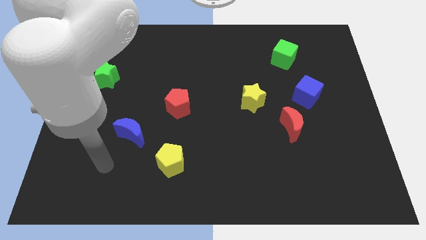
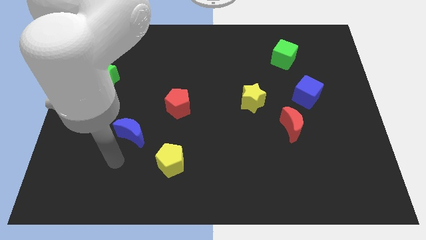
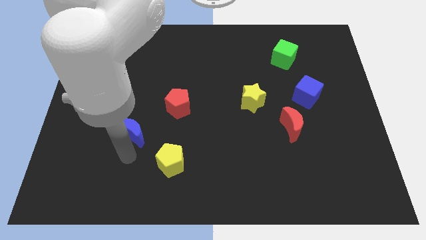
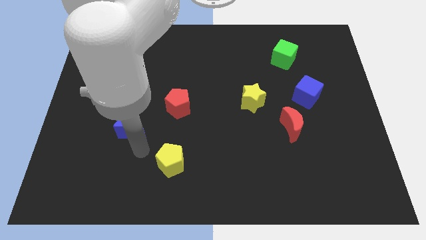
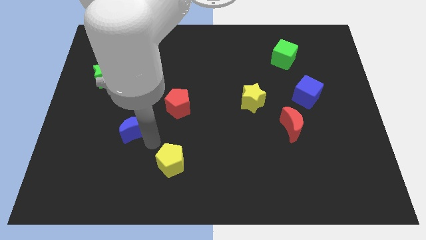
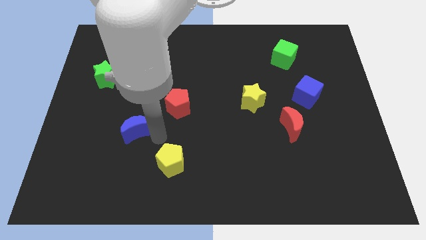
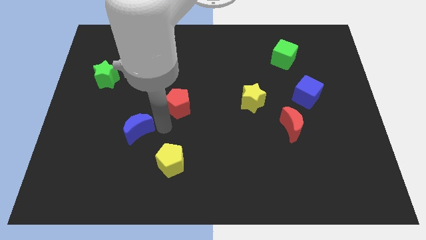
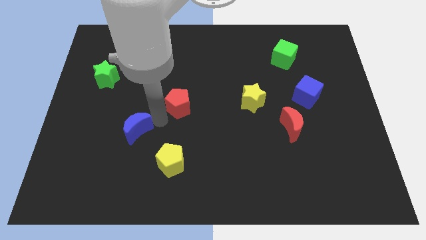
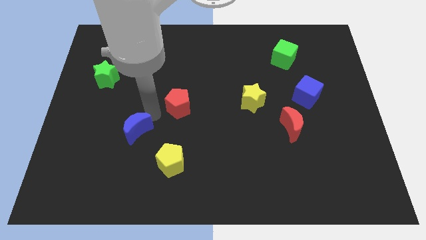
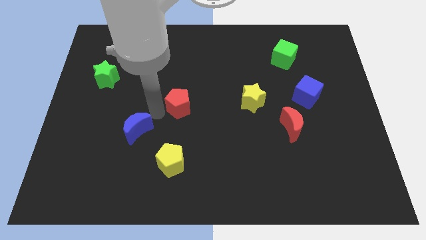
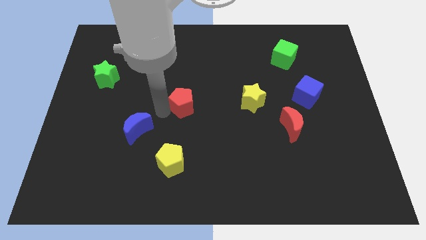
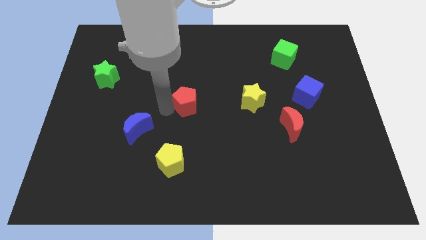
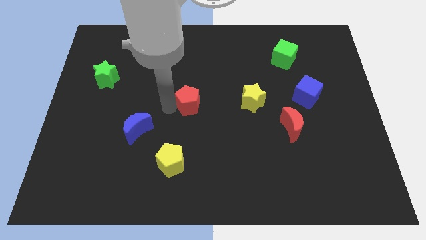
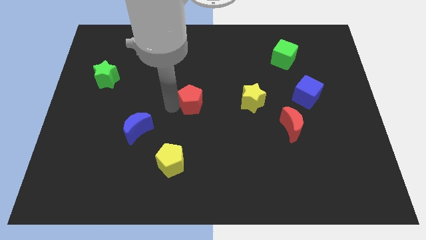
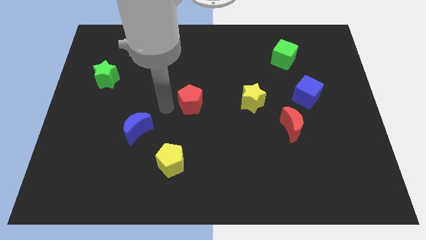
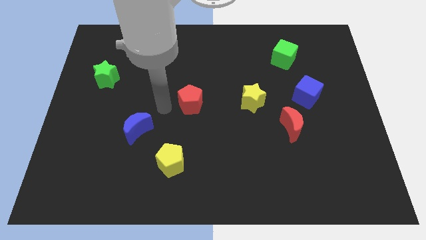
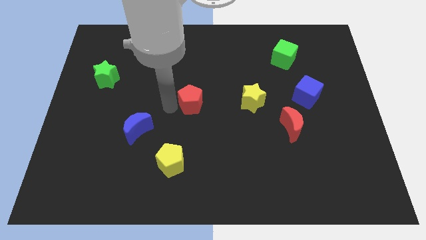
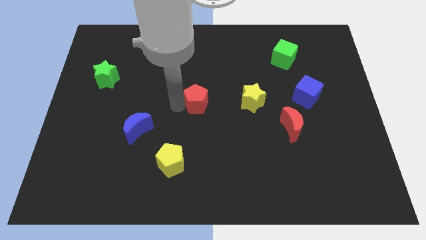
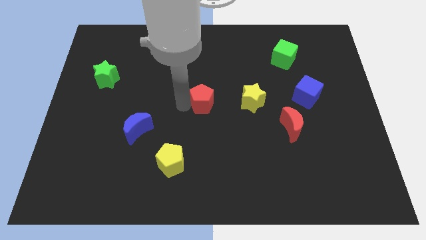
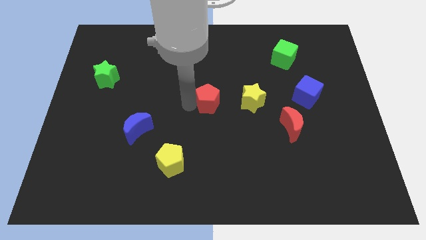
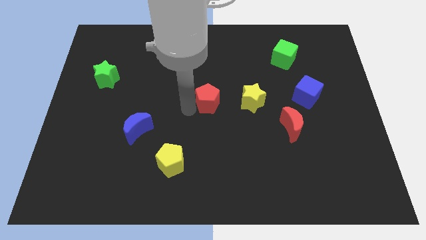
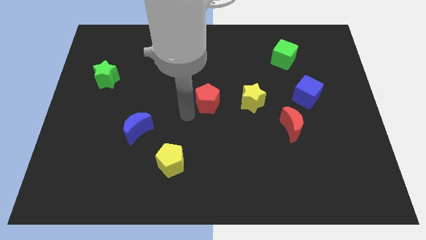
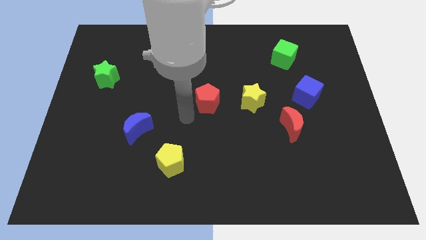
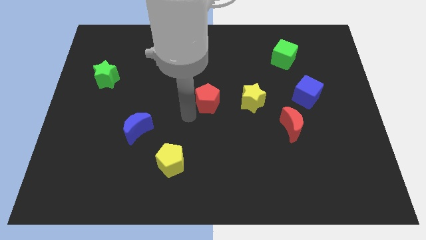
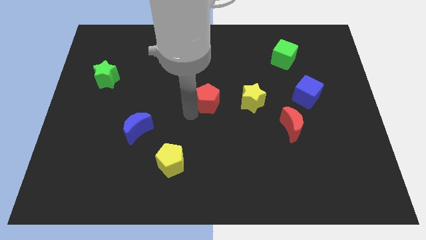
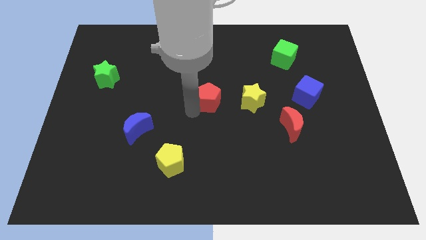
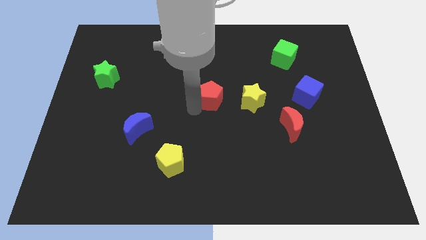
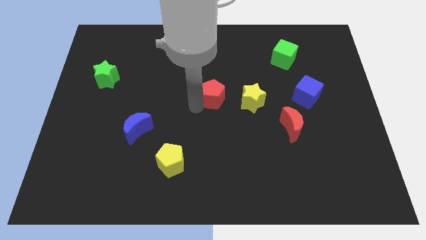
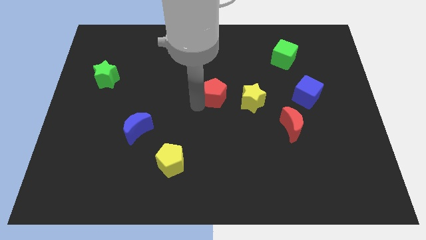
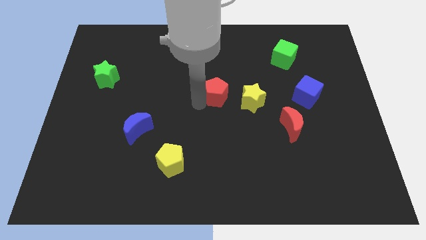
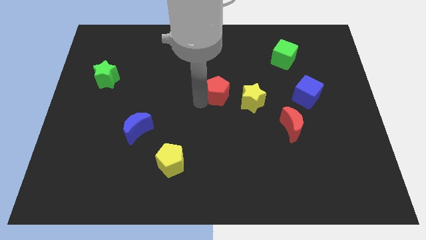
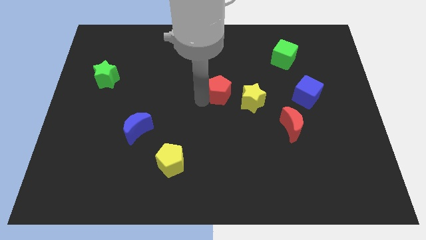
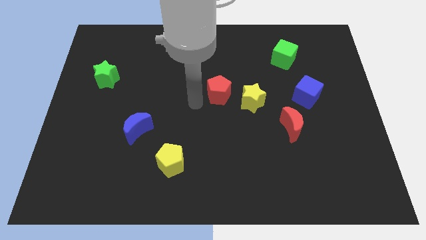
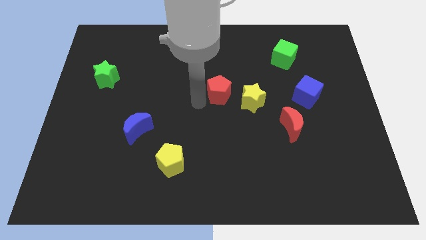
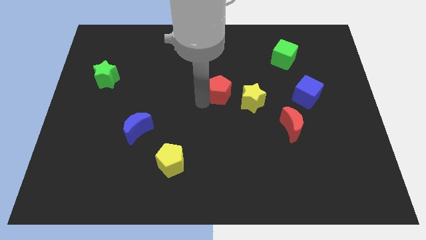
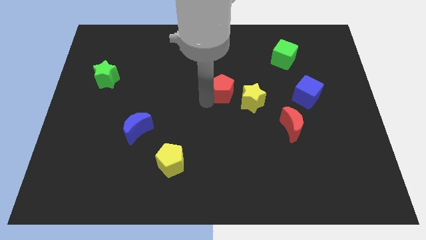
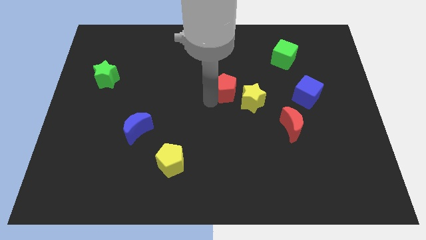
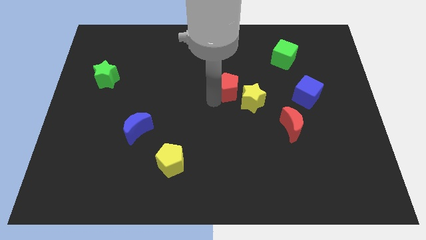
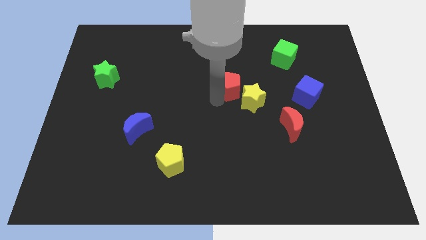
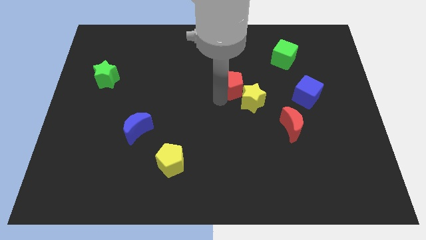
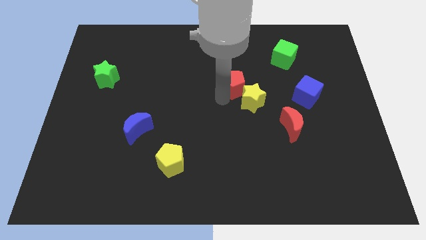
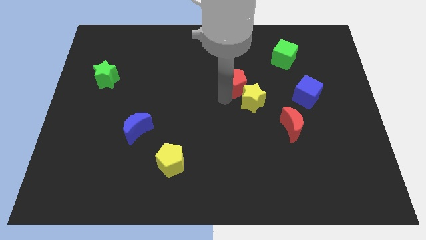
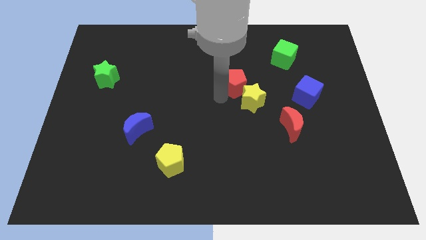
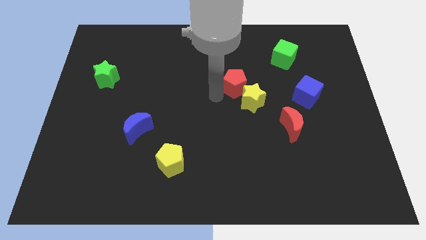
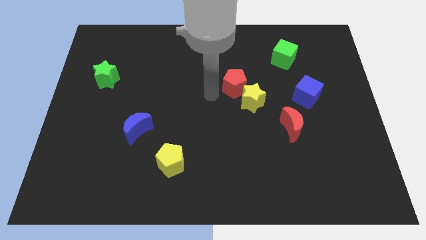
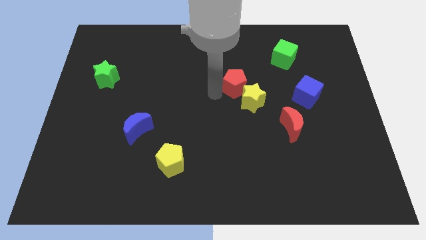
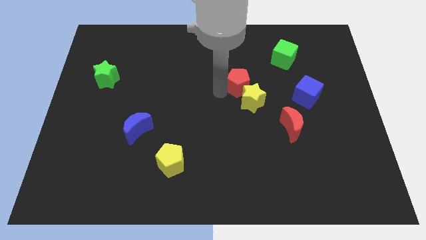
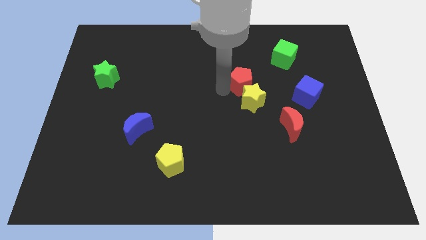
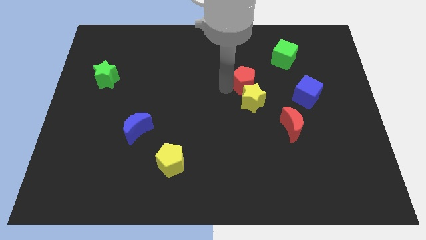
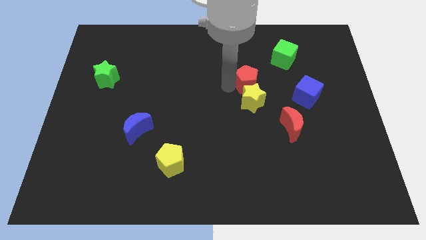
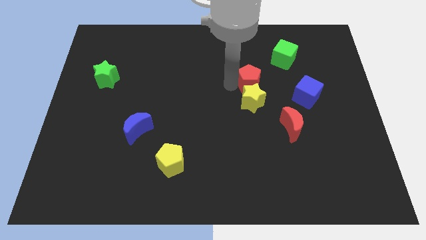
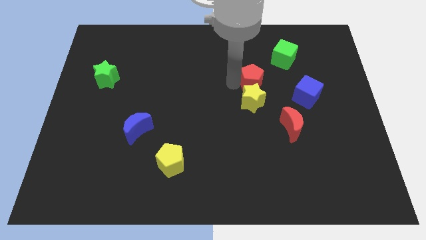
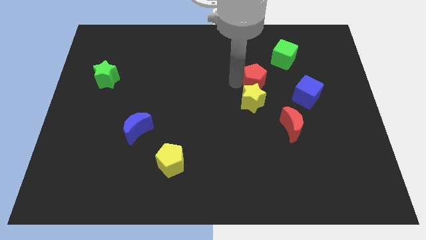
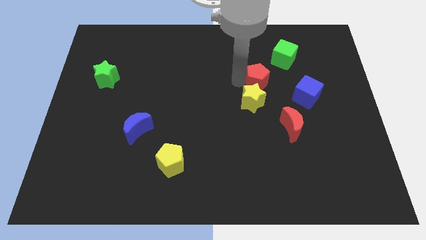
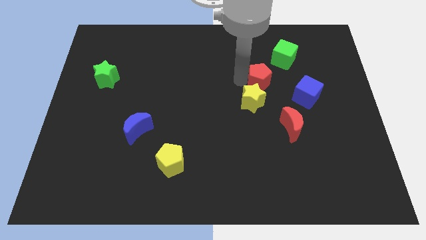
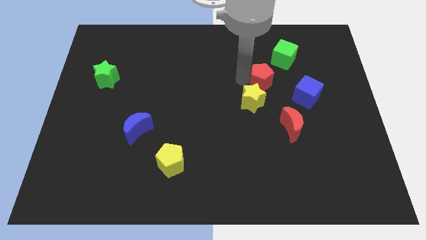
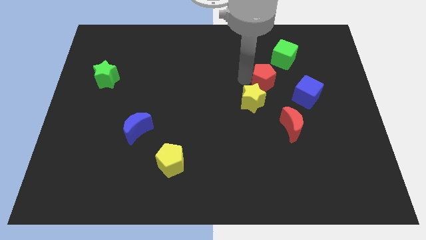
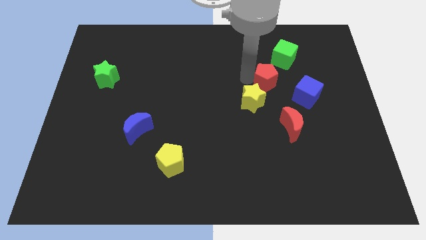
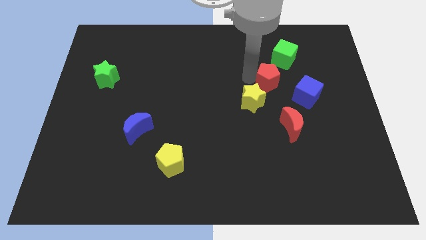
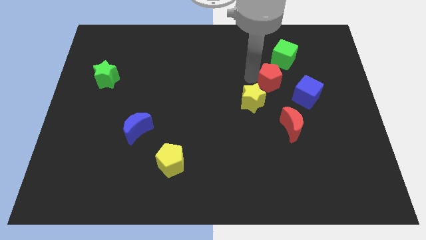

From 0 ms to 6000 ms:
put the red pentagon to the top of the red moon

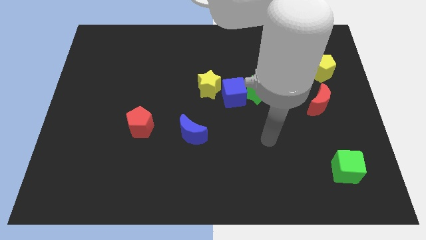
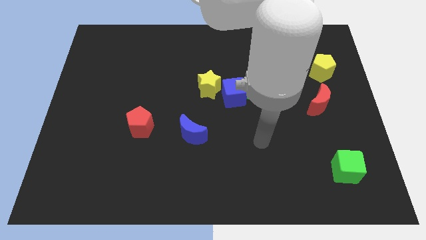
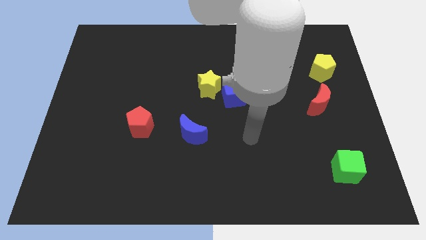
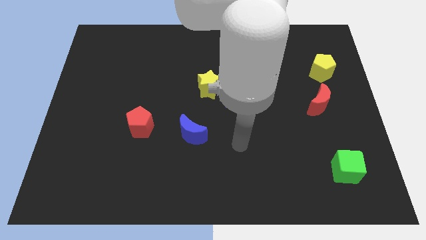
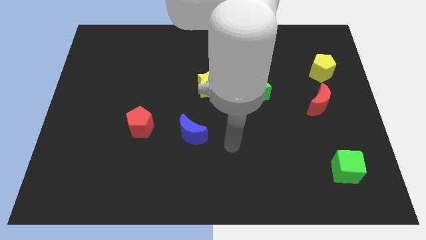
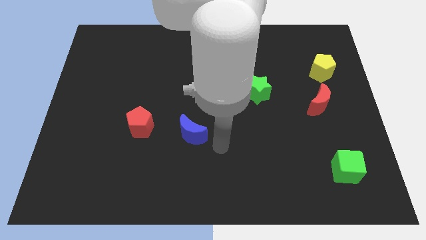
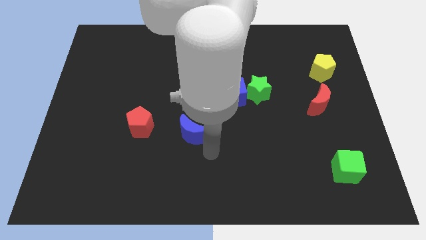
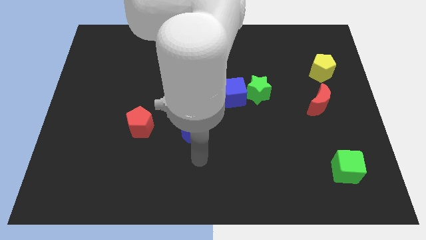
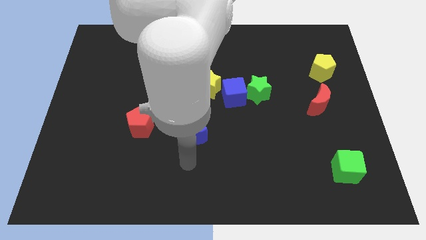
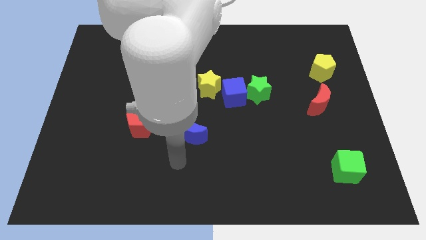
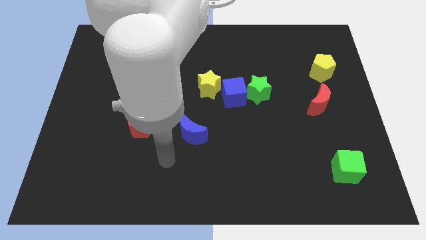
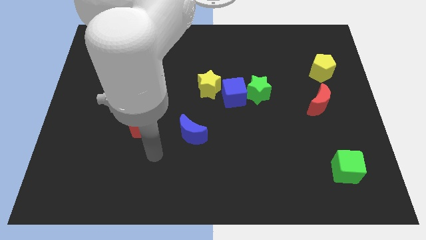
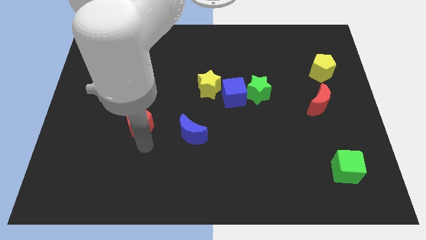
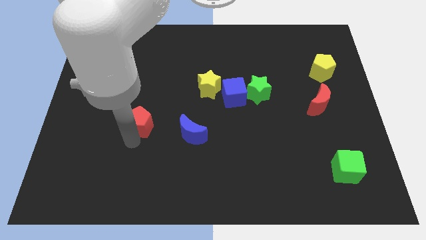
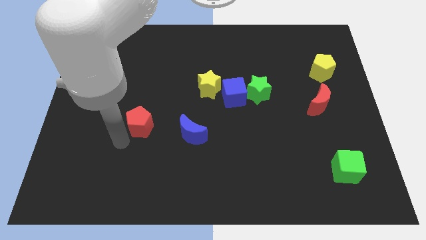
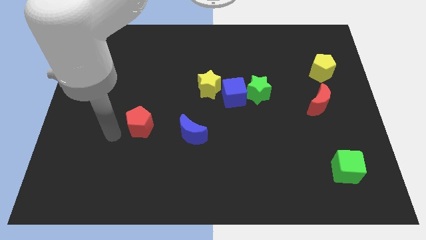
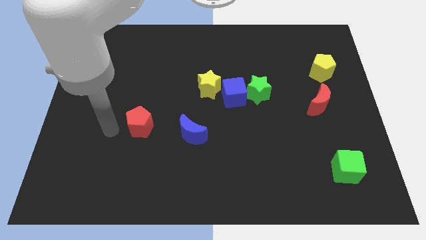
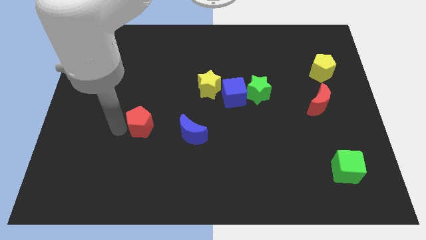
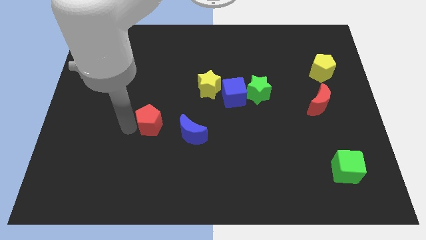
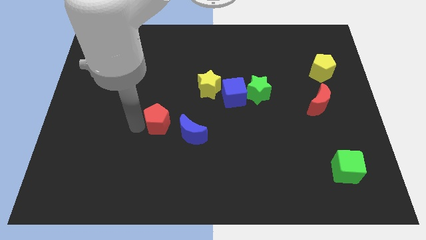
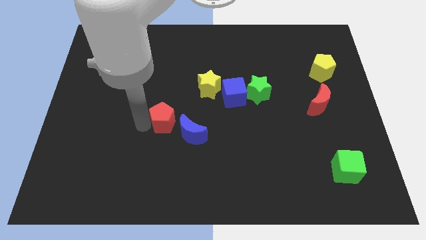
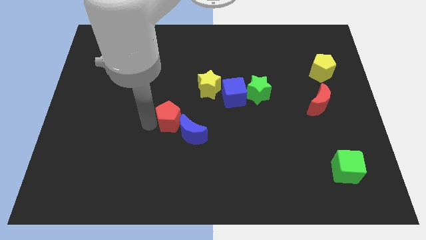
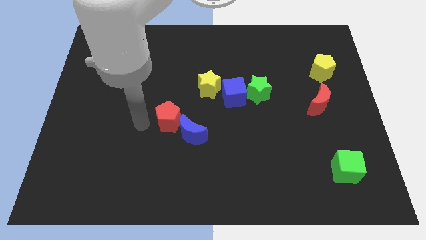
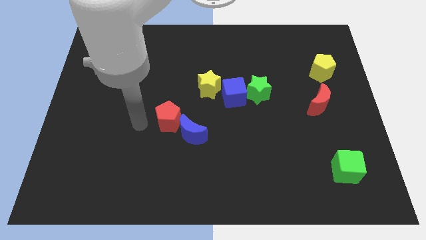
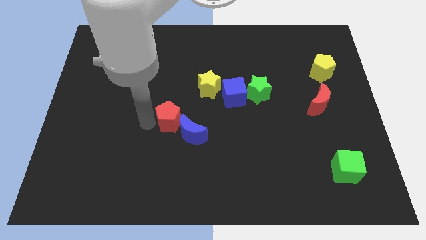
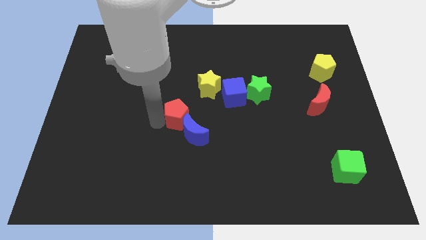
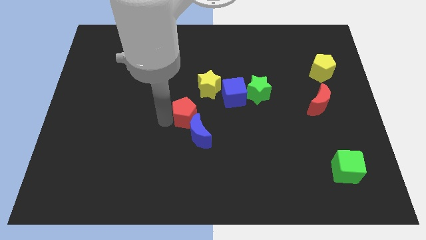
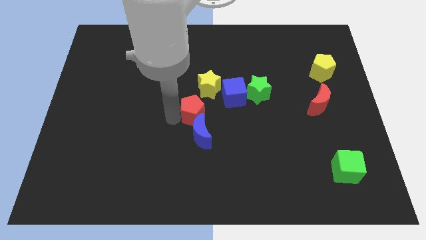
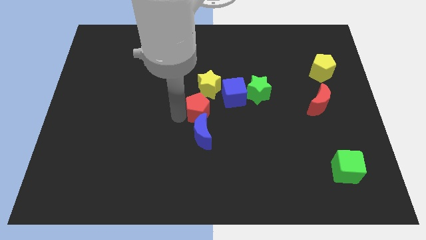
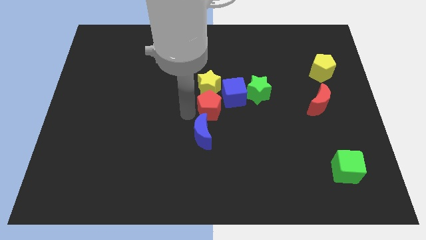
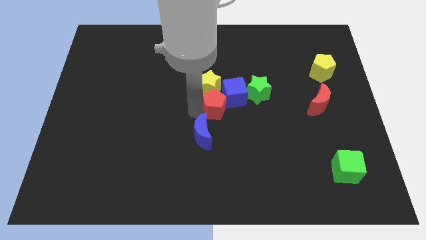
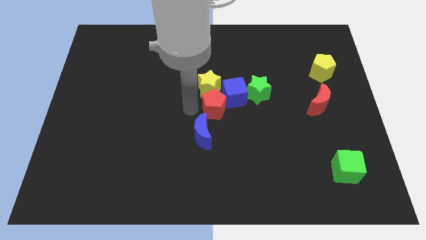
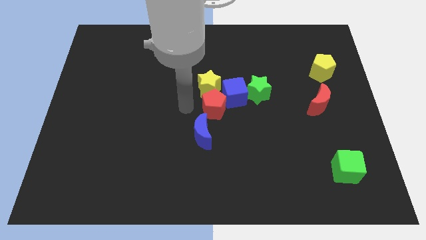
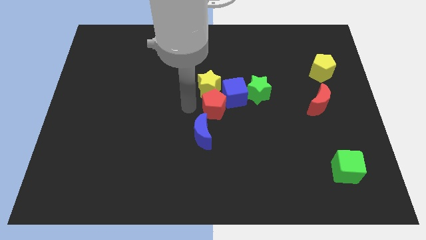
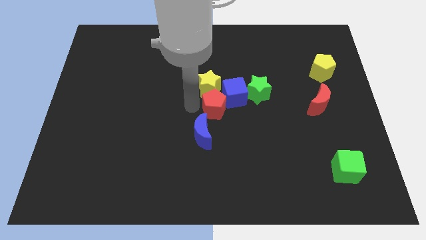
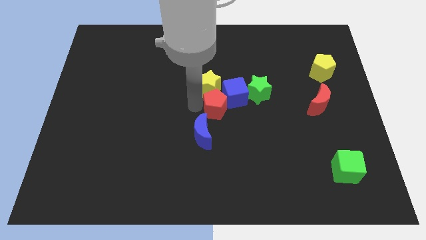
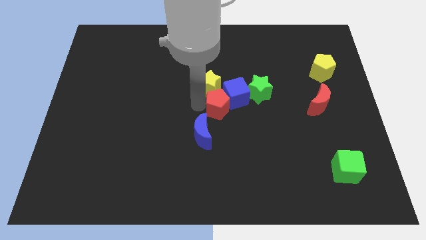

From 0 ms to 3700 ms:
slide the red pentagon to the bottom left of the green star
